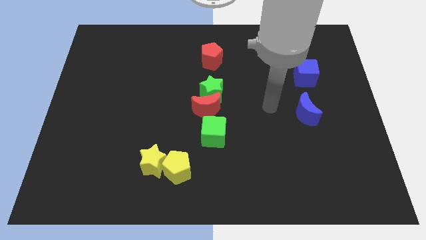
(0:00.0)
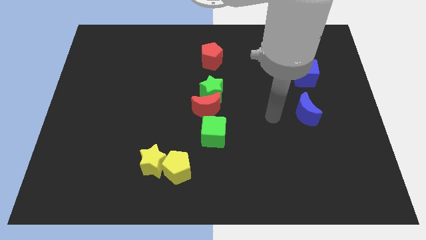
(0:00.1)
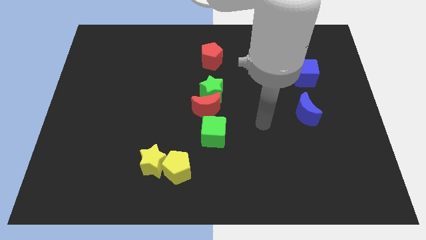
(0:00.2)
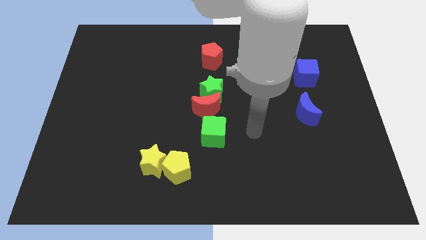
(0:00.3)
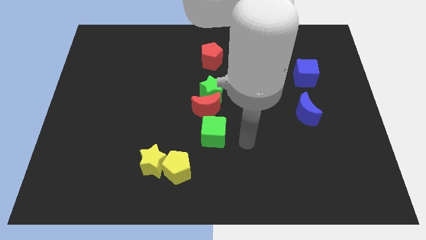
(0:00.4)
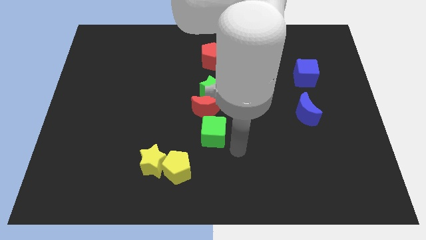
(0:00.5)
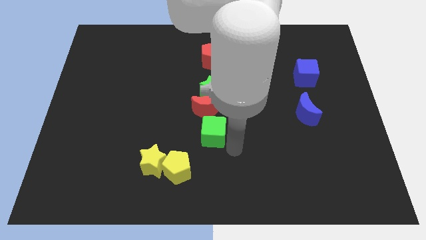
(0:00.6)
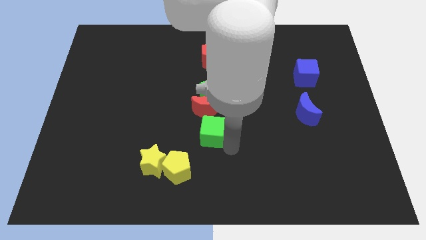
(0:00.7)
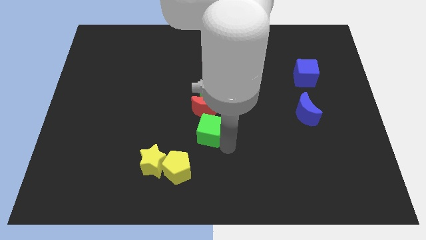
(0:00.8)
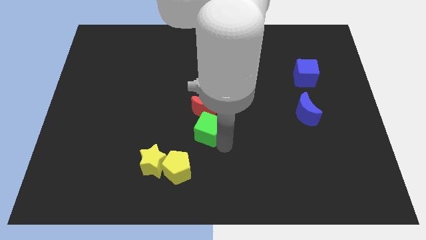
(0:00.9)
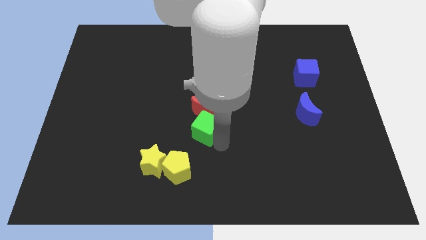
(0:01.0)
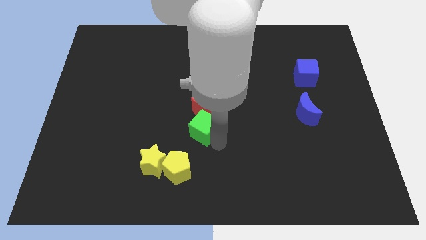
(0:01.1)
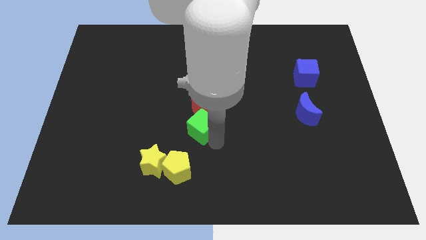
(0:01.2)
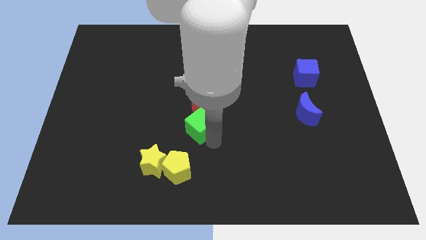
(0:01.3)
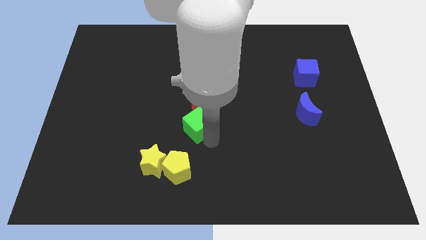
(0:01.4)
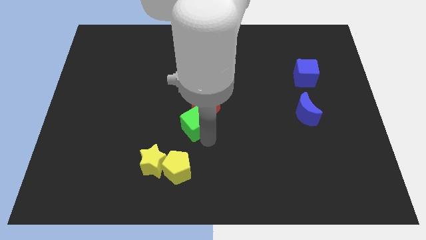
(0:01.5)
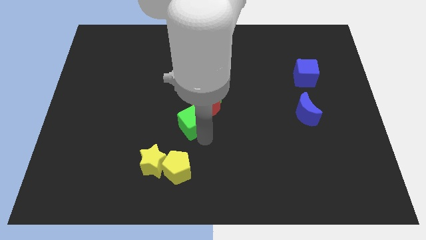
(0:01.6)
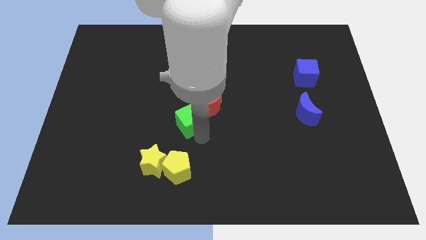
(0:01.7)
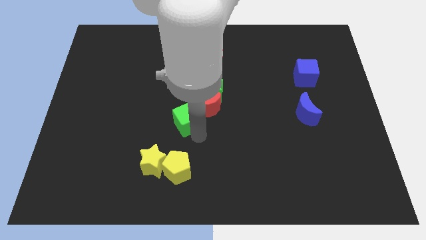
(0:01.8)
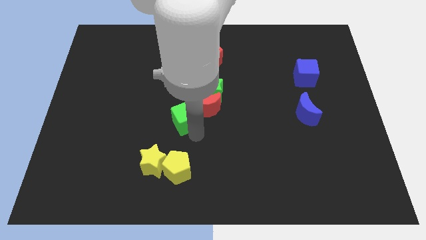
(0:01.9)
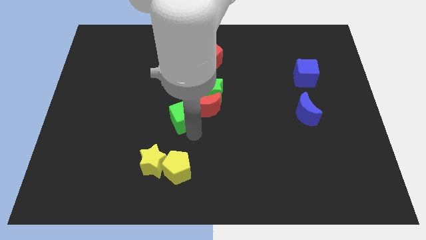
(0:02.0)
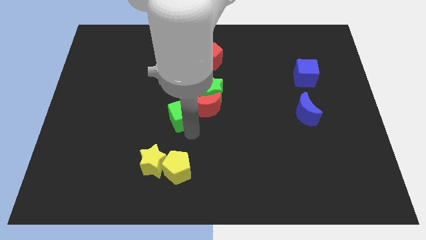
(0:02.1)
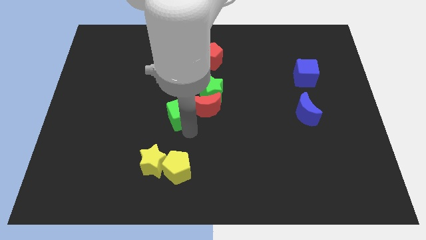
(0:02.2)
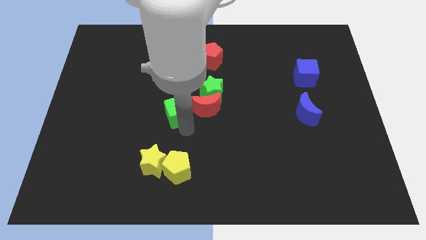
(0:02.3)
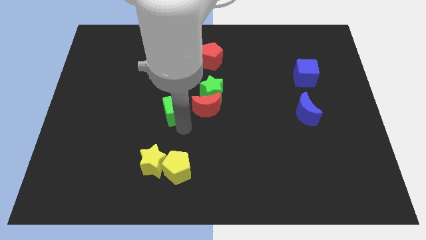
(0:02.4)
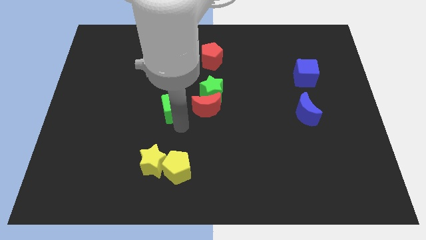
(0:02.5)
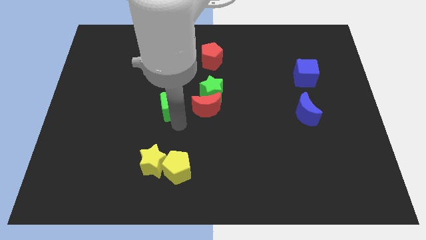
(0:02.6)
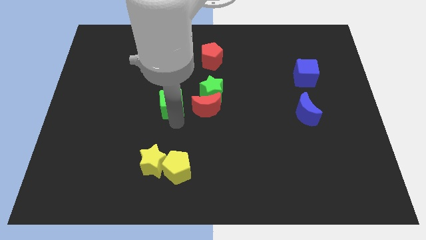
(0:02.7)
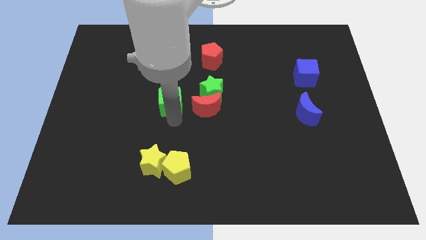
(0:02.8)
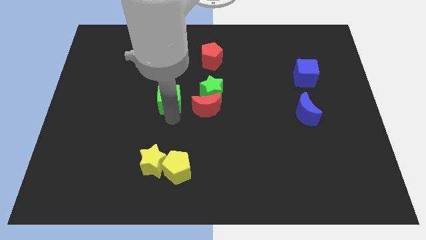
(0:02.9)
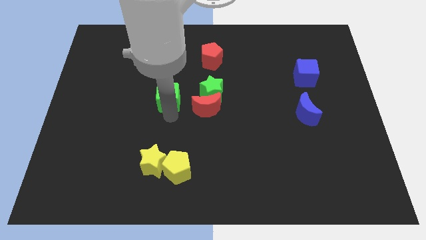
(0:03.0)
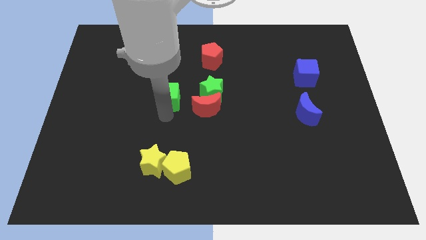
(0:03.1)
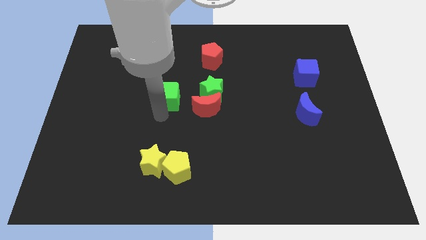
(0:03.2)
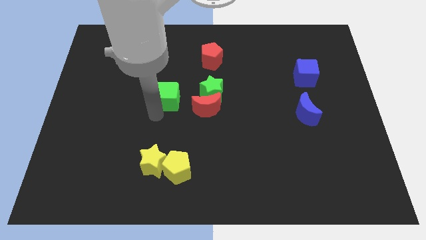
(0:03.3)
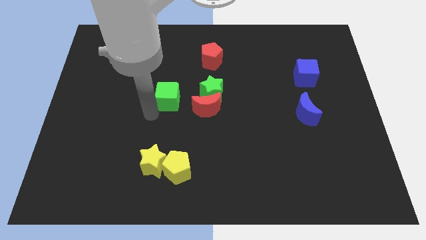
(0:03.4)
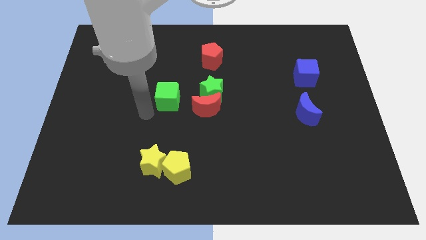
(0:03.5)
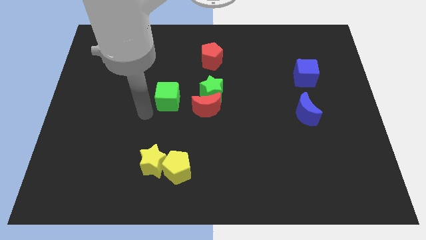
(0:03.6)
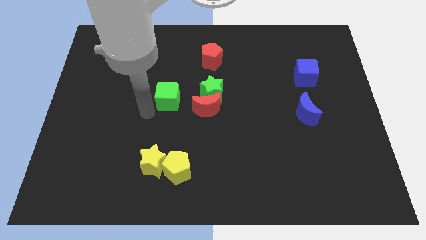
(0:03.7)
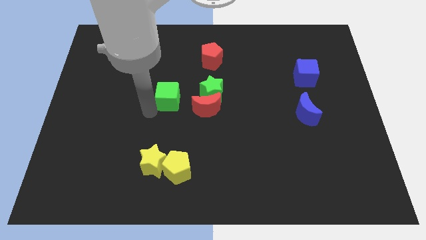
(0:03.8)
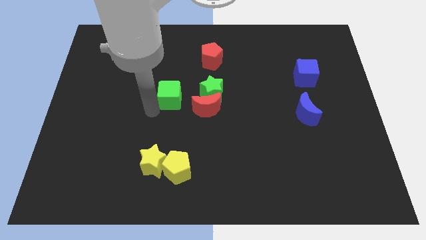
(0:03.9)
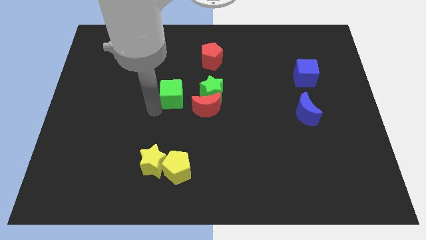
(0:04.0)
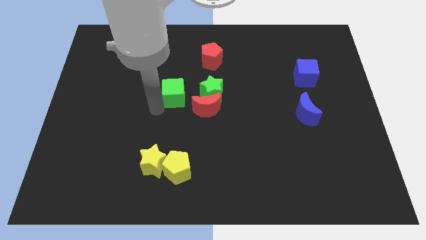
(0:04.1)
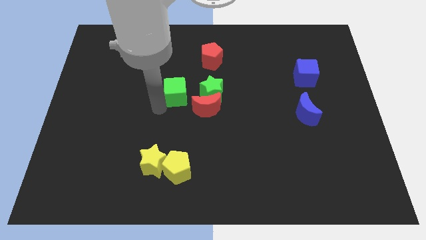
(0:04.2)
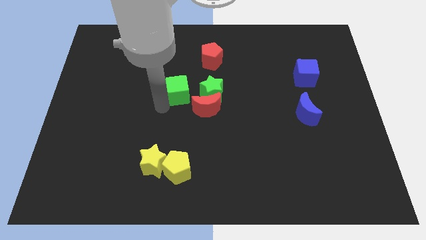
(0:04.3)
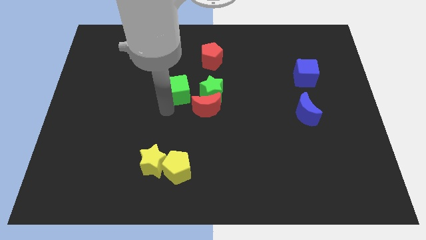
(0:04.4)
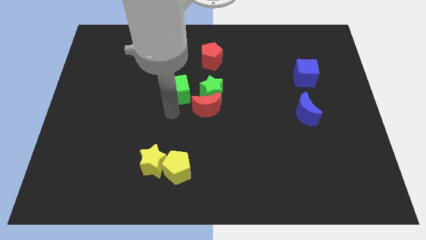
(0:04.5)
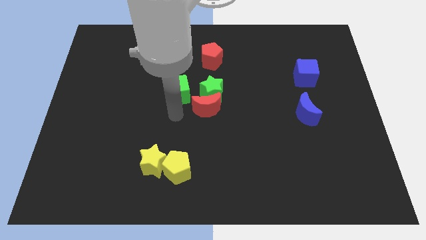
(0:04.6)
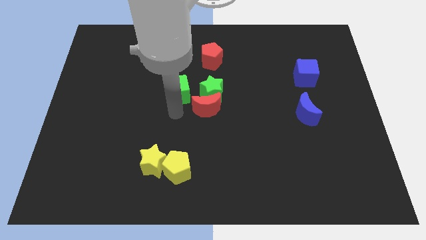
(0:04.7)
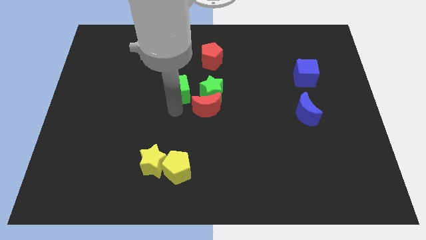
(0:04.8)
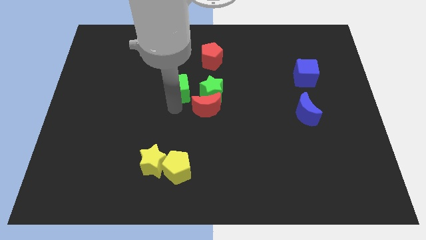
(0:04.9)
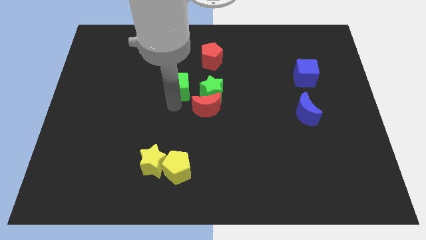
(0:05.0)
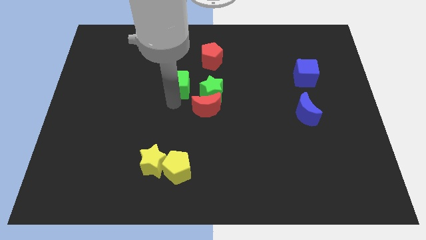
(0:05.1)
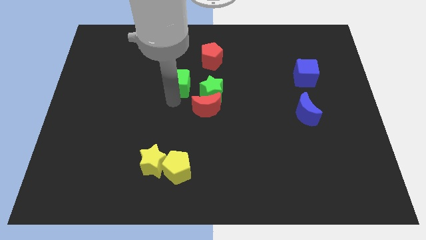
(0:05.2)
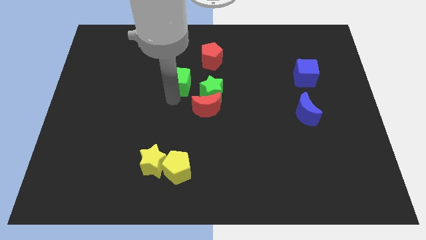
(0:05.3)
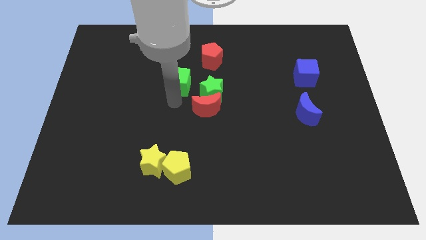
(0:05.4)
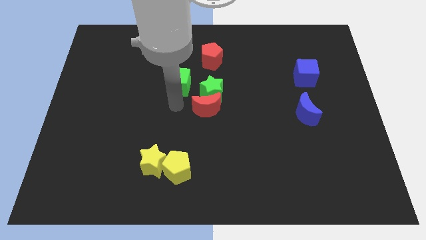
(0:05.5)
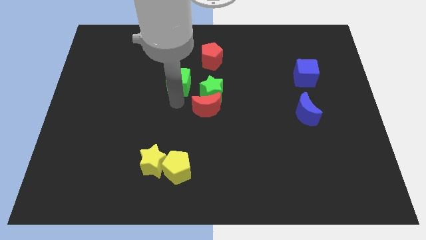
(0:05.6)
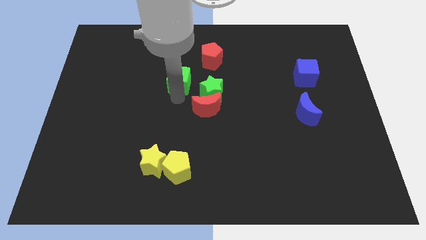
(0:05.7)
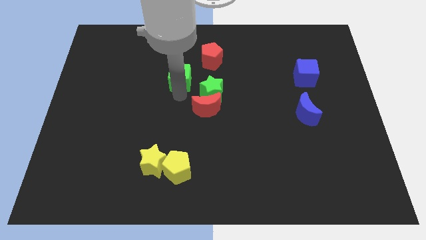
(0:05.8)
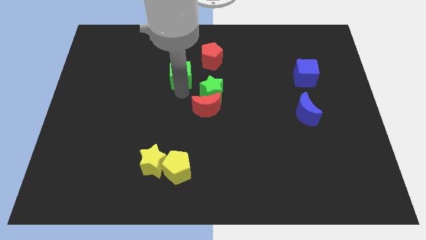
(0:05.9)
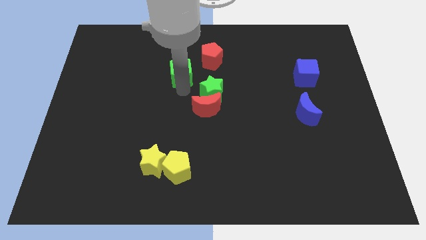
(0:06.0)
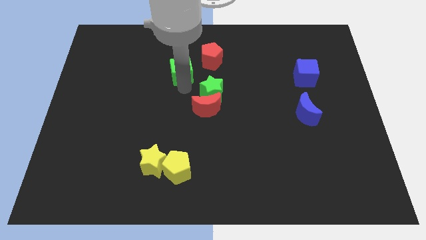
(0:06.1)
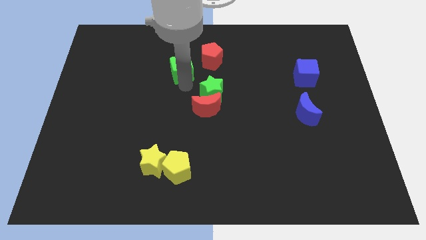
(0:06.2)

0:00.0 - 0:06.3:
move the green cube to the left side of the red pentagon

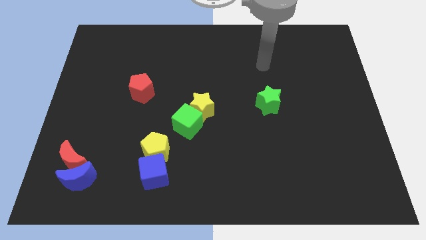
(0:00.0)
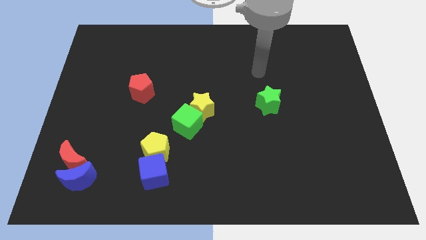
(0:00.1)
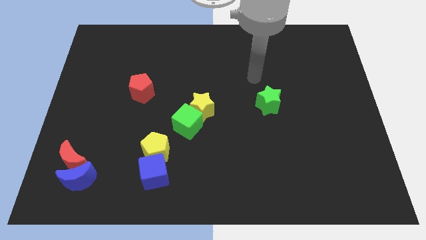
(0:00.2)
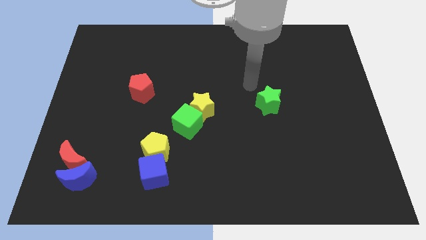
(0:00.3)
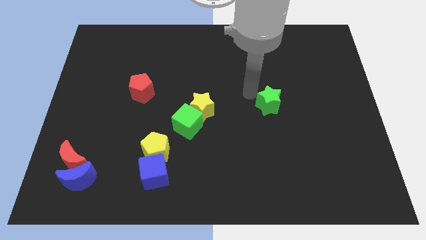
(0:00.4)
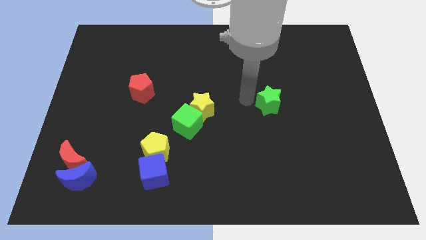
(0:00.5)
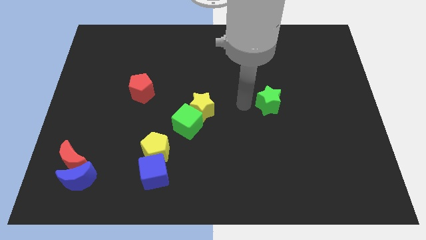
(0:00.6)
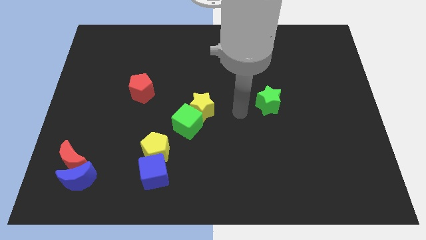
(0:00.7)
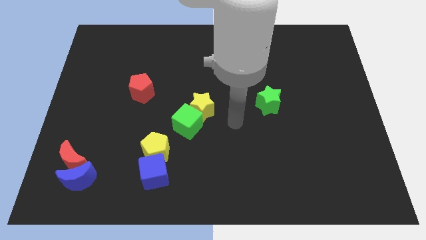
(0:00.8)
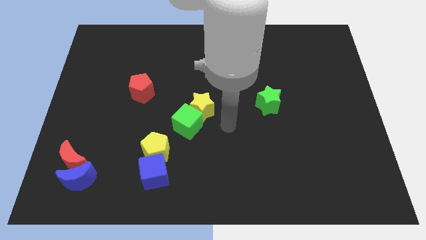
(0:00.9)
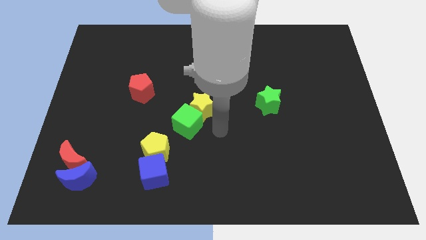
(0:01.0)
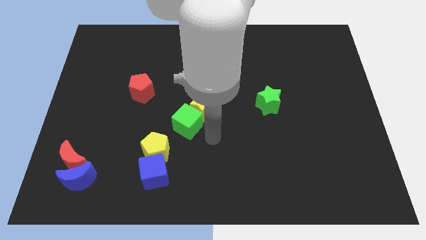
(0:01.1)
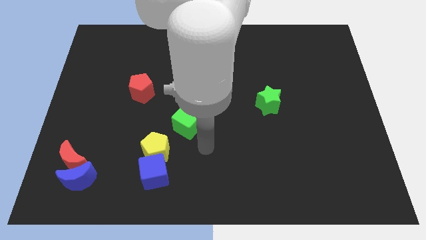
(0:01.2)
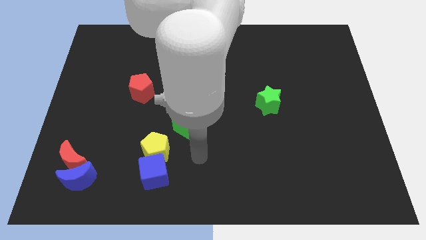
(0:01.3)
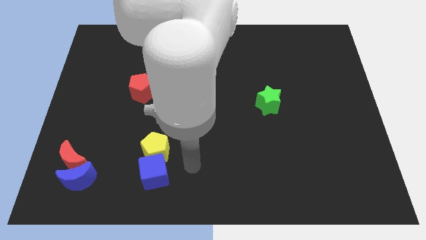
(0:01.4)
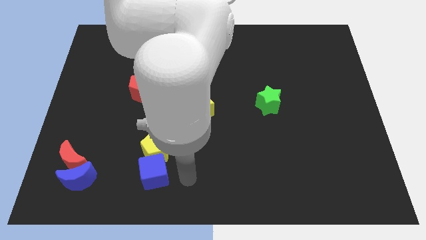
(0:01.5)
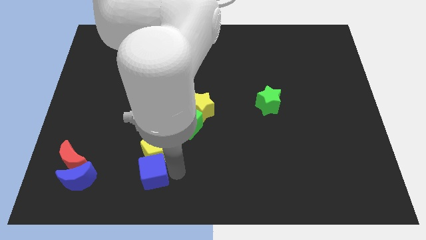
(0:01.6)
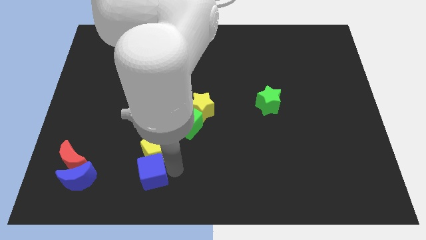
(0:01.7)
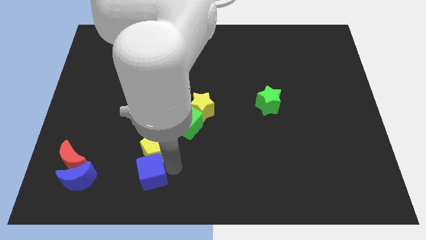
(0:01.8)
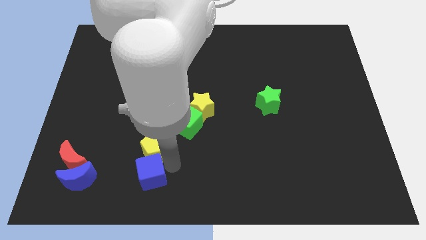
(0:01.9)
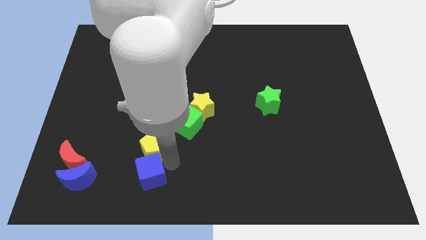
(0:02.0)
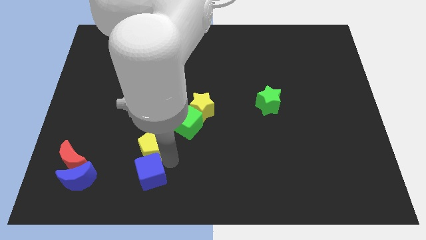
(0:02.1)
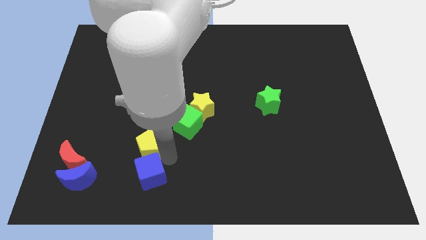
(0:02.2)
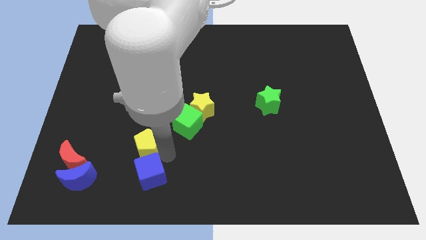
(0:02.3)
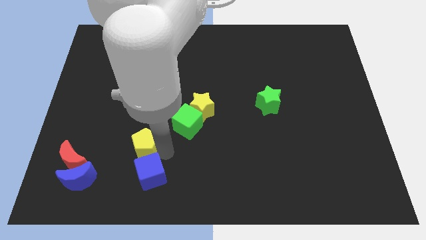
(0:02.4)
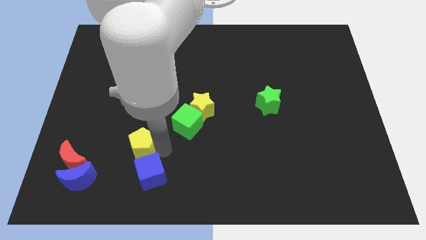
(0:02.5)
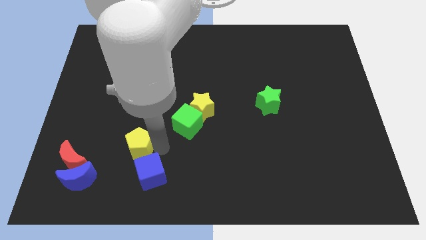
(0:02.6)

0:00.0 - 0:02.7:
put the yellow pentagon to the bottom side of the red pentagon
